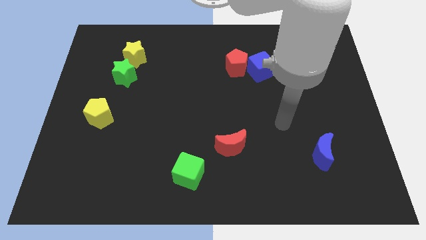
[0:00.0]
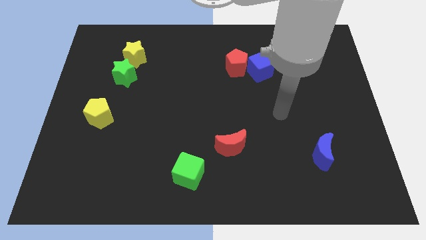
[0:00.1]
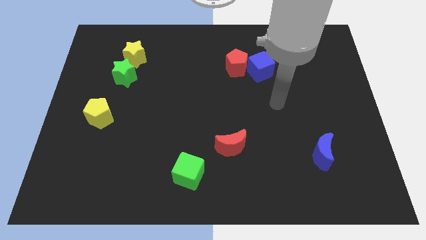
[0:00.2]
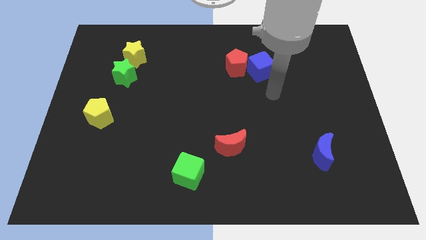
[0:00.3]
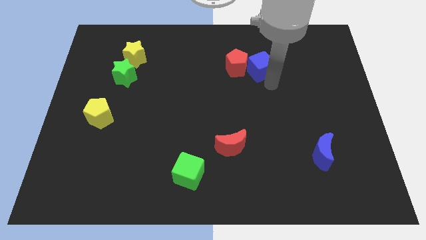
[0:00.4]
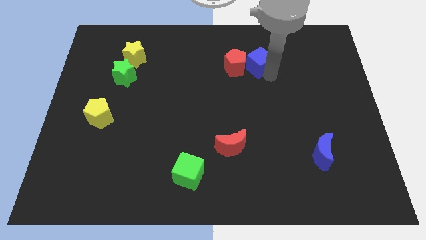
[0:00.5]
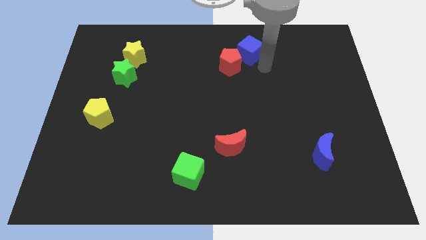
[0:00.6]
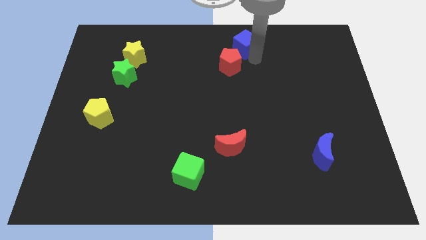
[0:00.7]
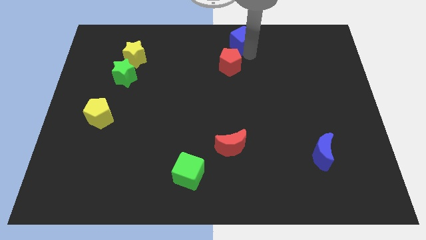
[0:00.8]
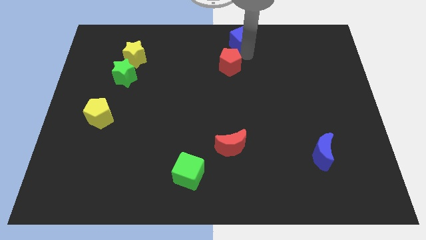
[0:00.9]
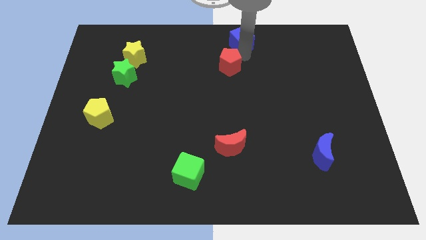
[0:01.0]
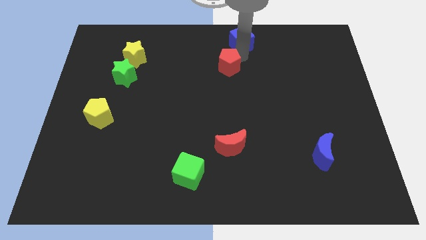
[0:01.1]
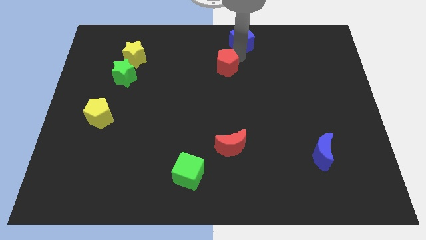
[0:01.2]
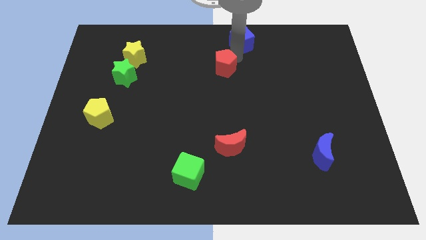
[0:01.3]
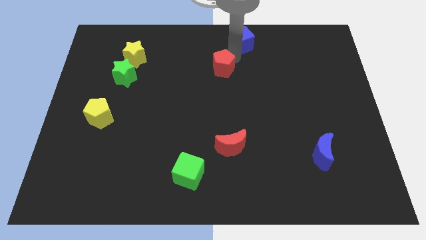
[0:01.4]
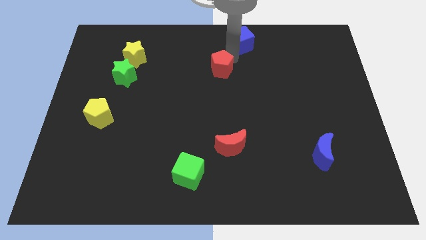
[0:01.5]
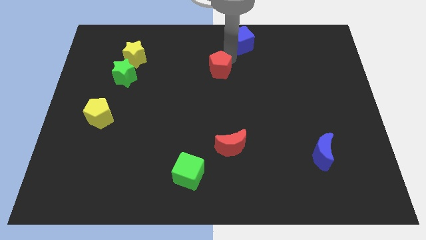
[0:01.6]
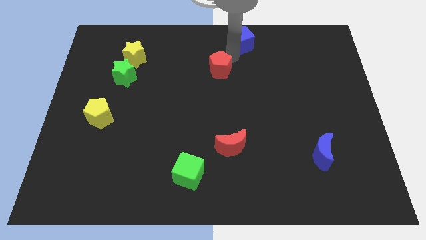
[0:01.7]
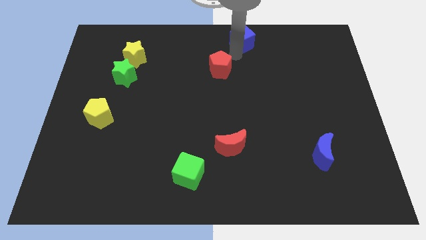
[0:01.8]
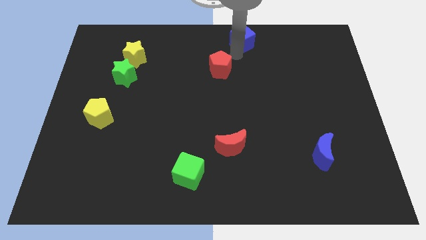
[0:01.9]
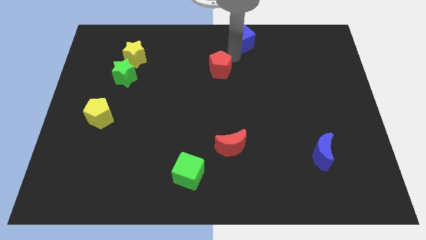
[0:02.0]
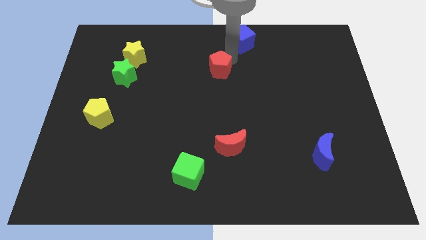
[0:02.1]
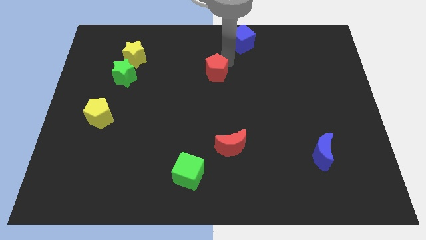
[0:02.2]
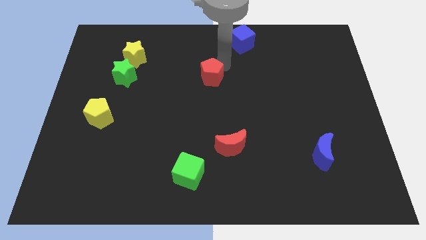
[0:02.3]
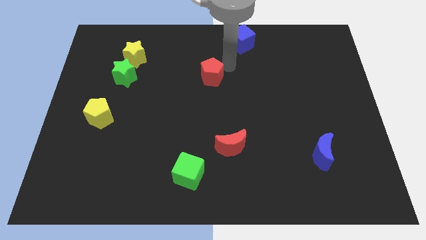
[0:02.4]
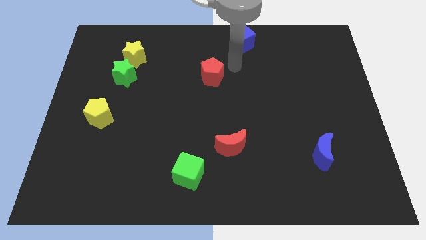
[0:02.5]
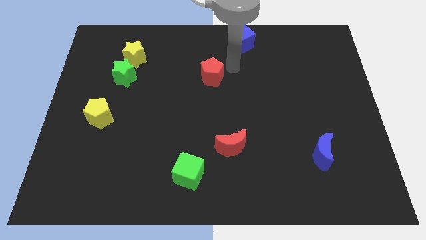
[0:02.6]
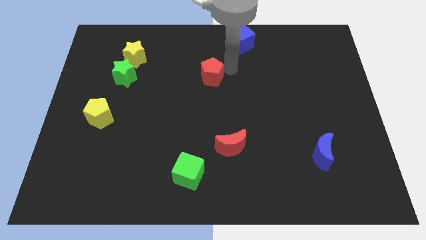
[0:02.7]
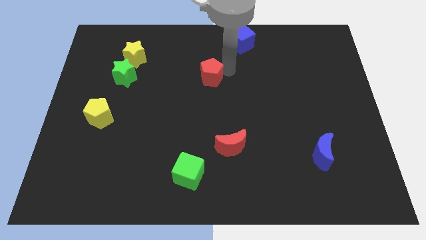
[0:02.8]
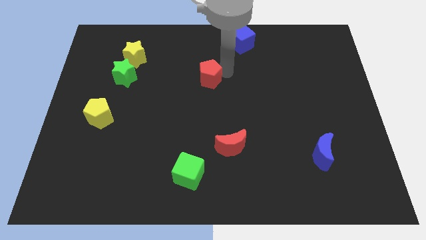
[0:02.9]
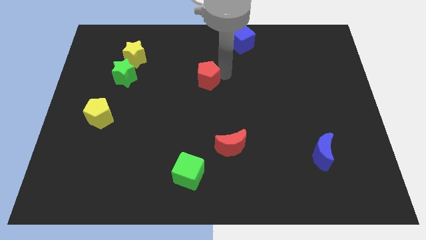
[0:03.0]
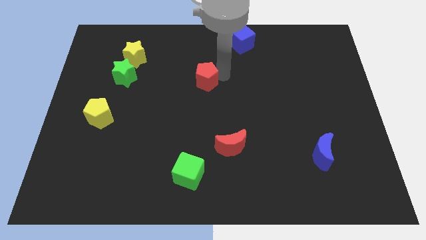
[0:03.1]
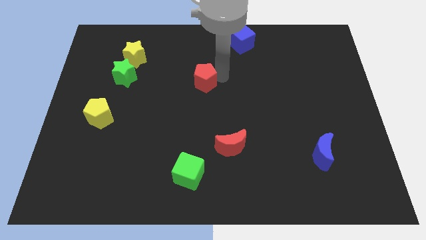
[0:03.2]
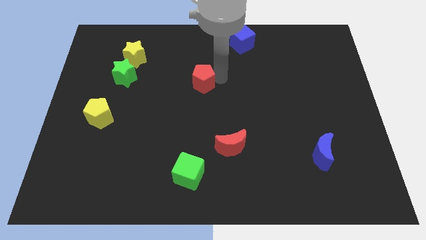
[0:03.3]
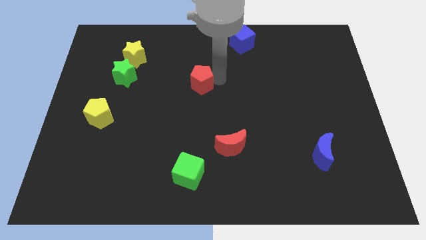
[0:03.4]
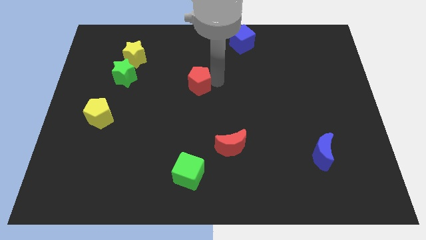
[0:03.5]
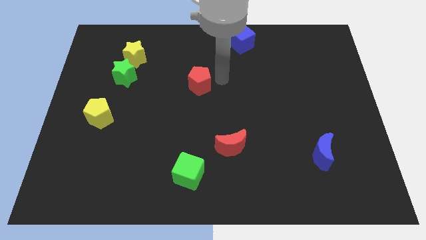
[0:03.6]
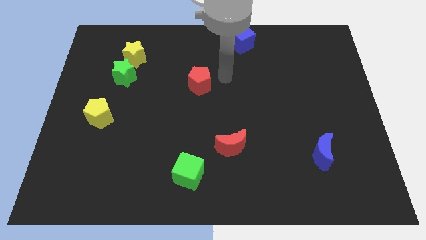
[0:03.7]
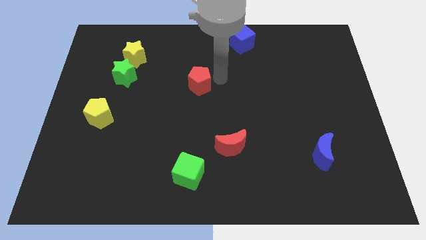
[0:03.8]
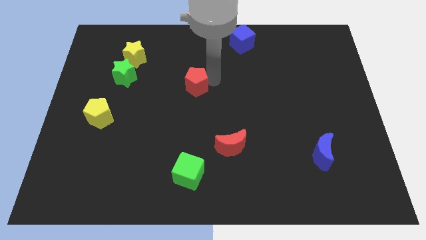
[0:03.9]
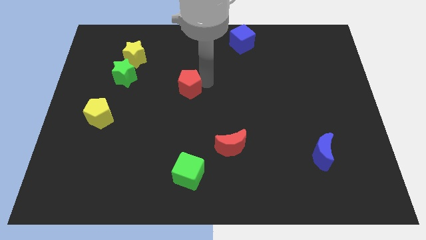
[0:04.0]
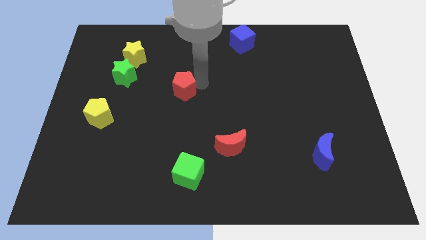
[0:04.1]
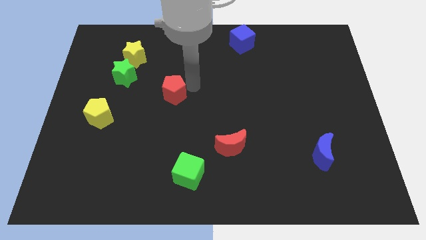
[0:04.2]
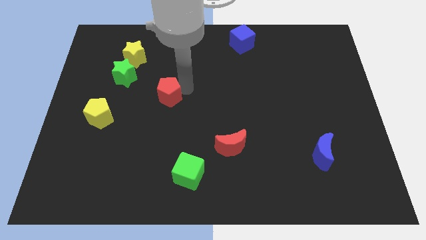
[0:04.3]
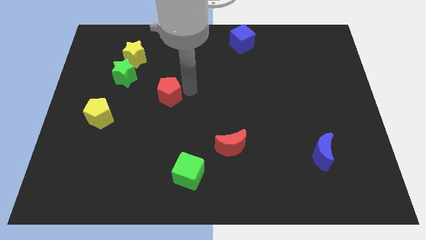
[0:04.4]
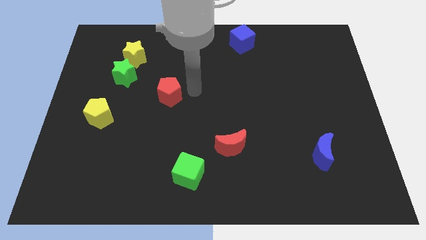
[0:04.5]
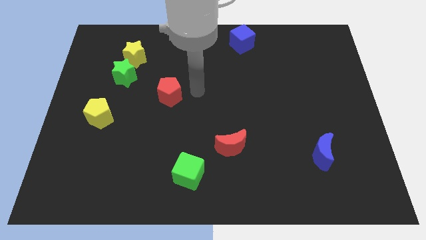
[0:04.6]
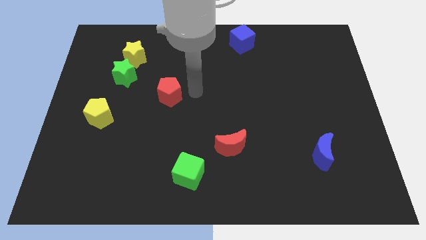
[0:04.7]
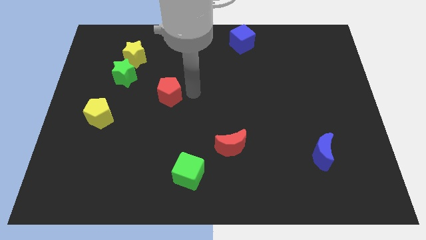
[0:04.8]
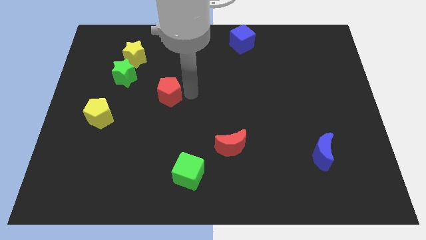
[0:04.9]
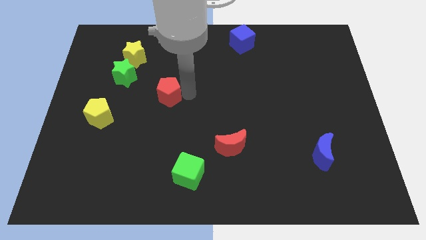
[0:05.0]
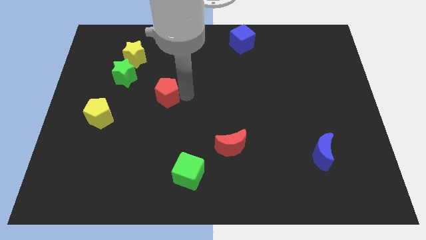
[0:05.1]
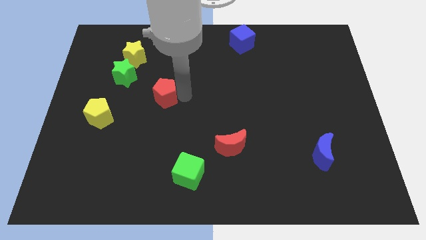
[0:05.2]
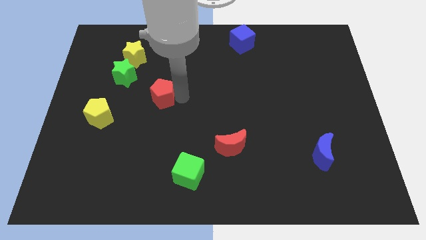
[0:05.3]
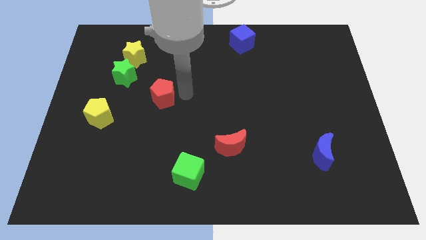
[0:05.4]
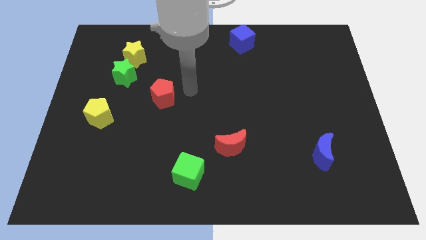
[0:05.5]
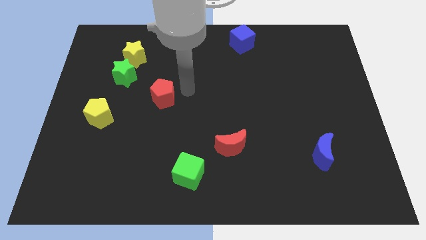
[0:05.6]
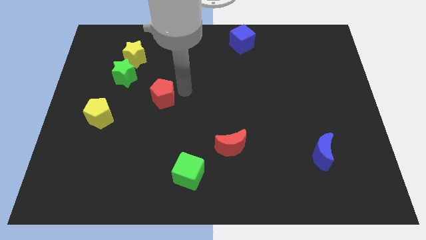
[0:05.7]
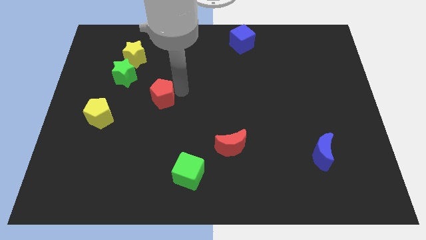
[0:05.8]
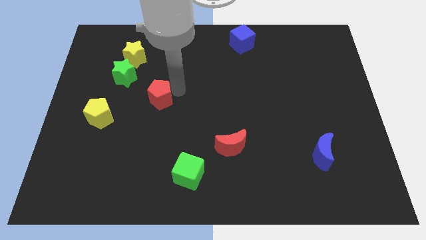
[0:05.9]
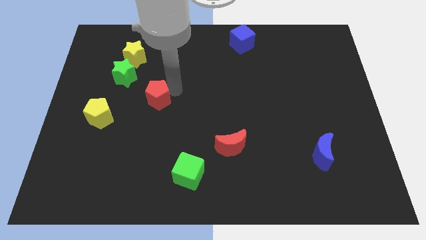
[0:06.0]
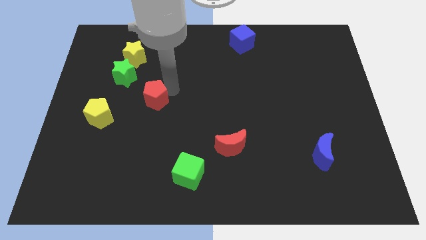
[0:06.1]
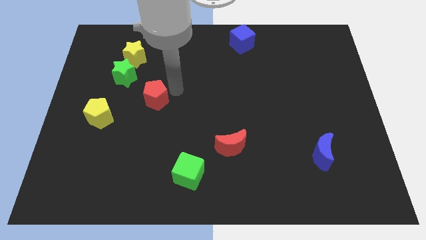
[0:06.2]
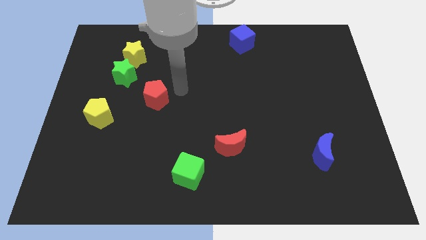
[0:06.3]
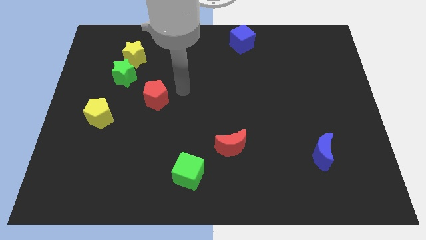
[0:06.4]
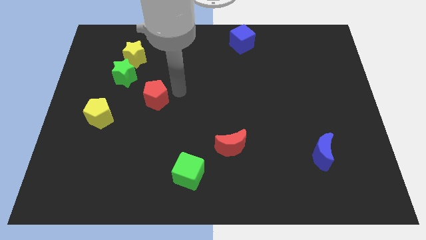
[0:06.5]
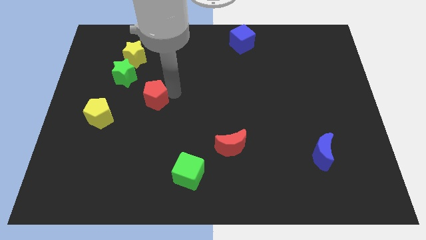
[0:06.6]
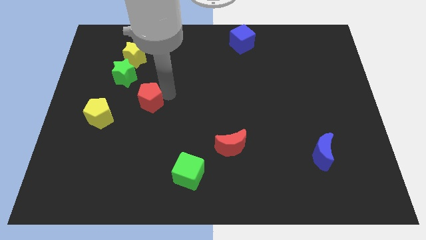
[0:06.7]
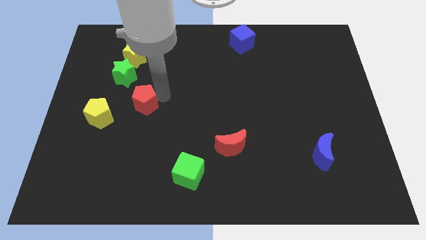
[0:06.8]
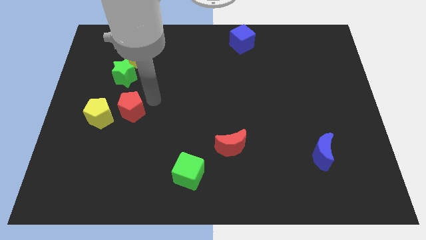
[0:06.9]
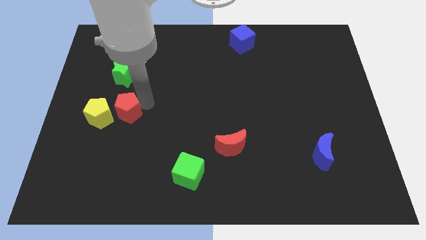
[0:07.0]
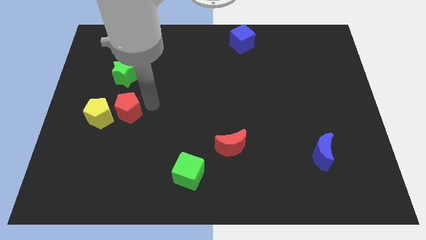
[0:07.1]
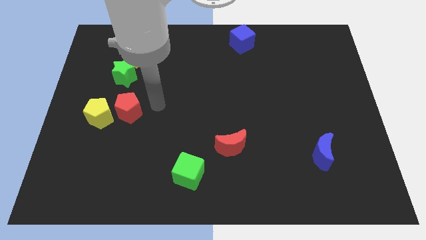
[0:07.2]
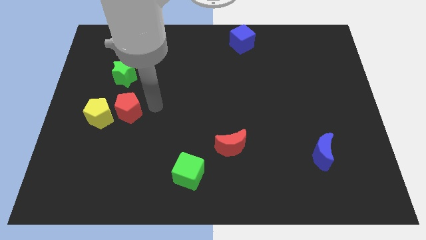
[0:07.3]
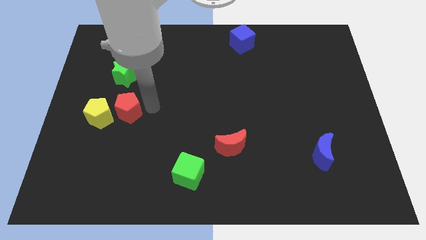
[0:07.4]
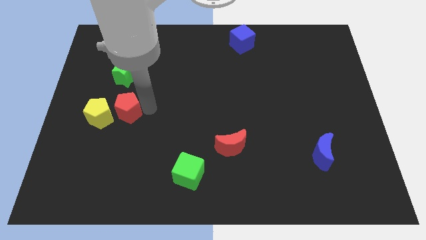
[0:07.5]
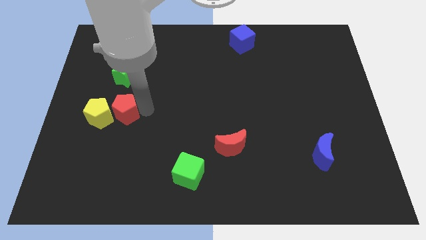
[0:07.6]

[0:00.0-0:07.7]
put the red pentagon next to the yellow pentagon
